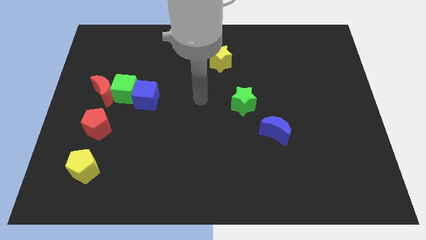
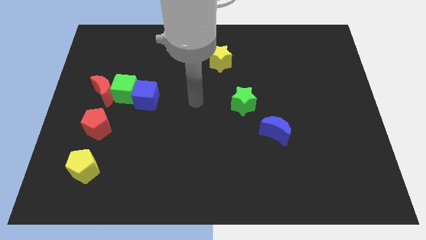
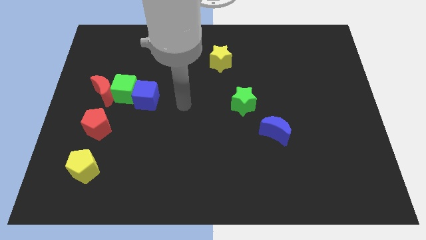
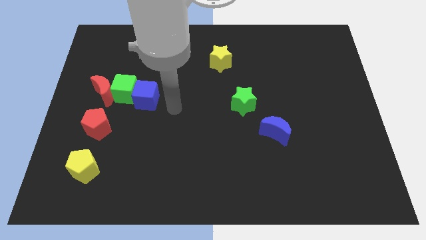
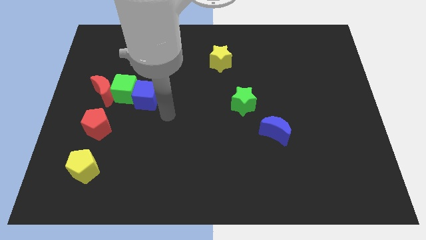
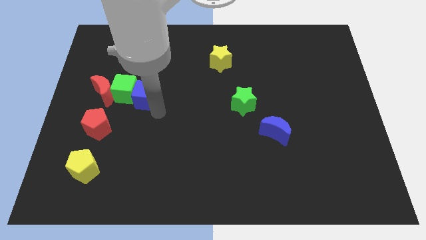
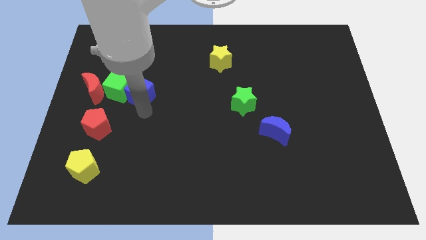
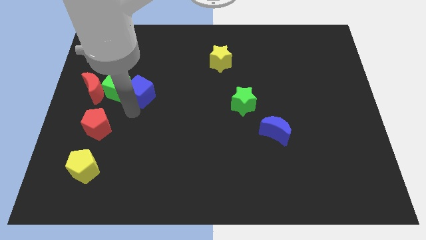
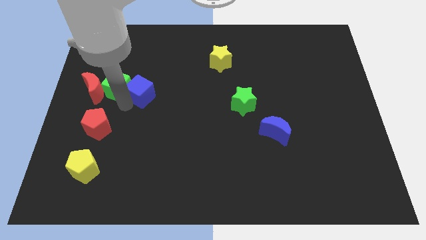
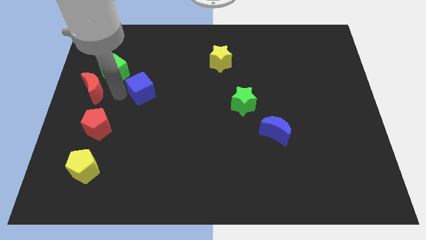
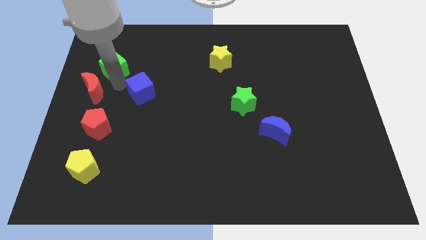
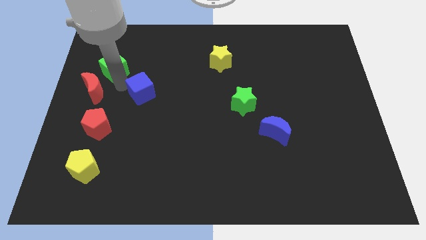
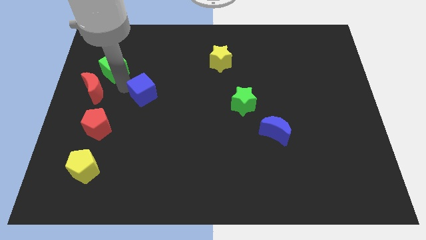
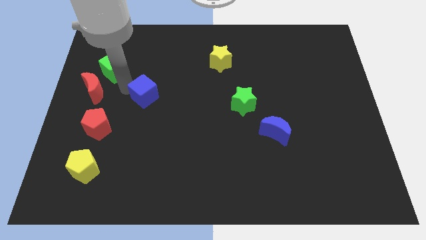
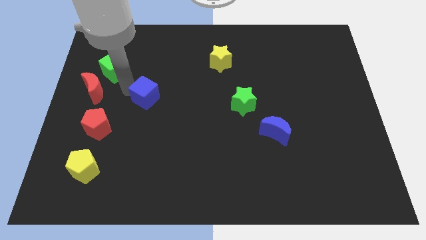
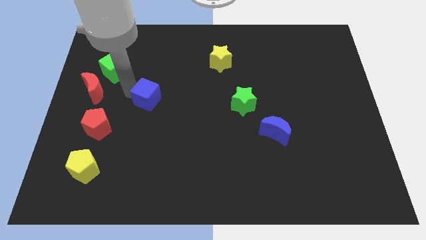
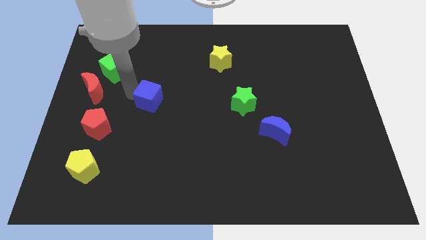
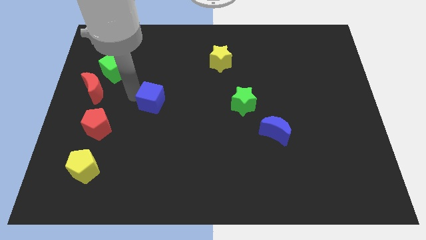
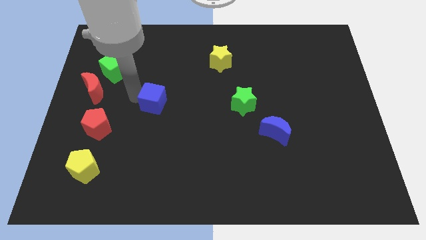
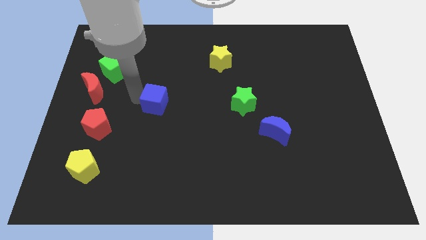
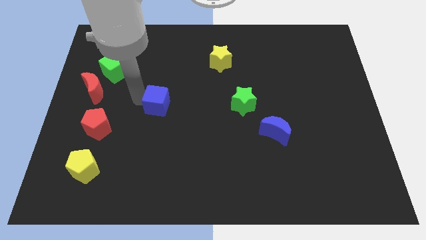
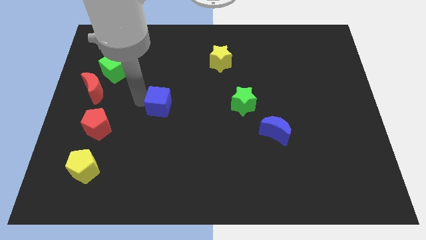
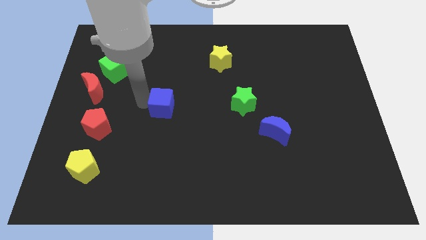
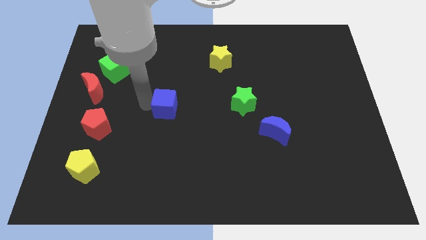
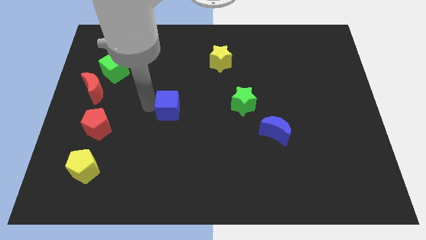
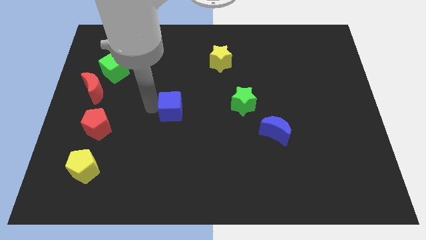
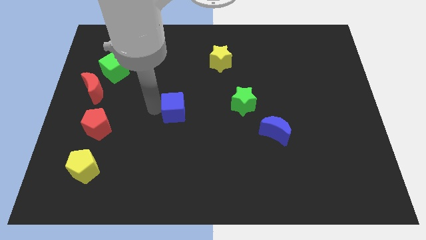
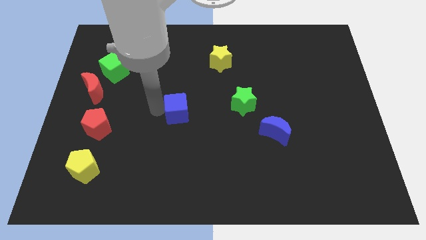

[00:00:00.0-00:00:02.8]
push the blue cube a bit right

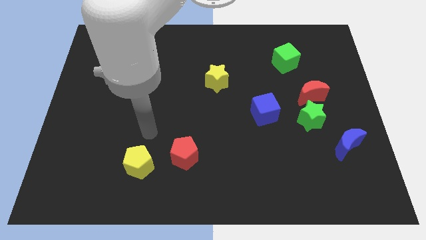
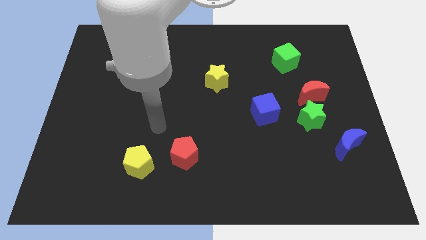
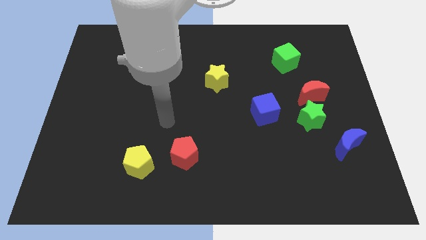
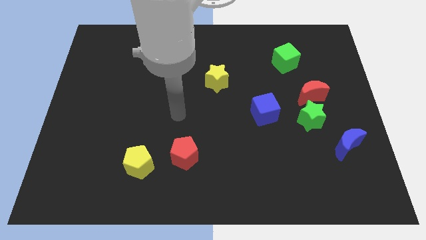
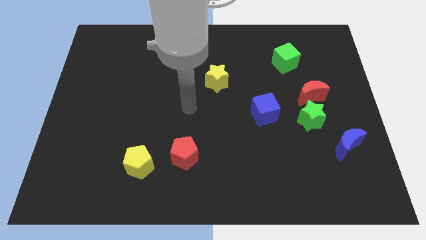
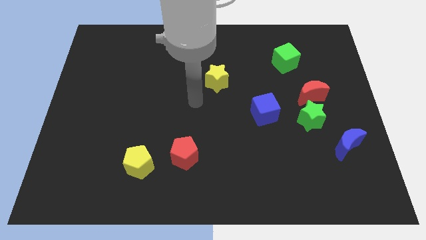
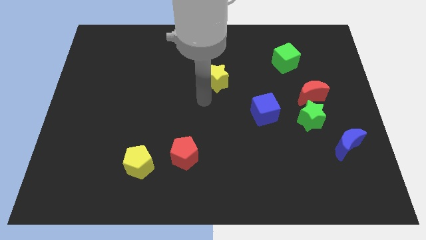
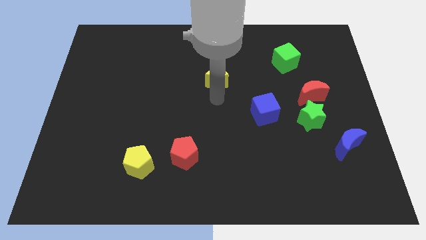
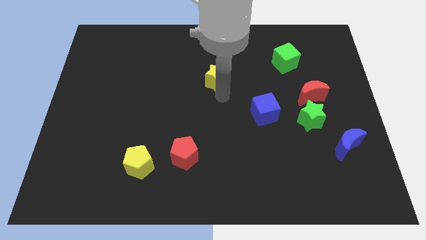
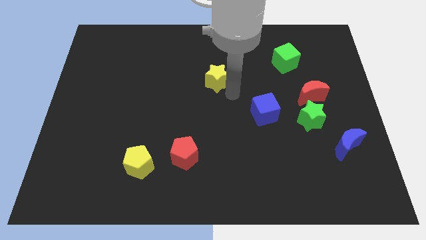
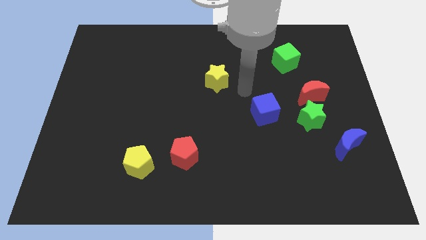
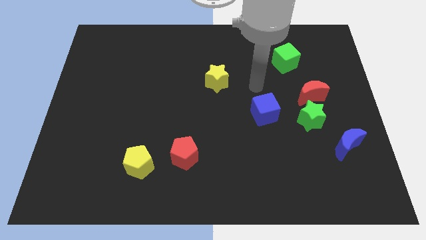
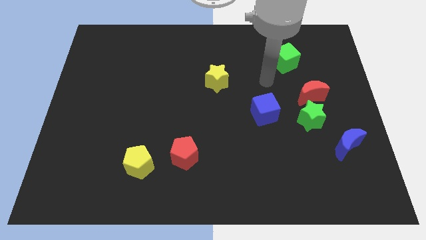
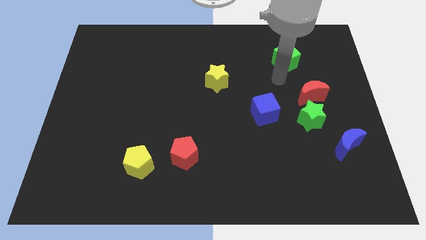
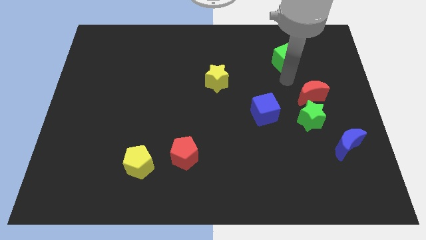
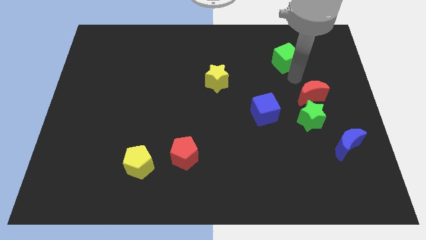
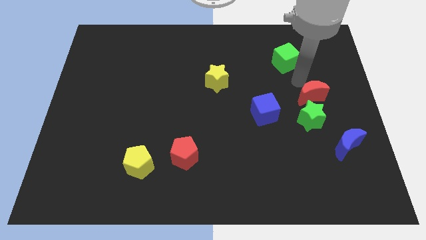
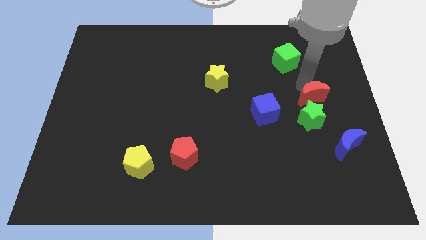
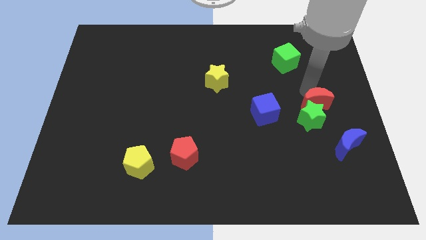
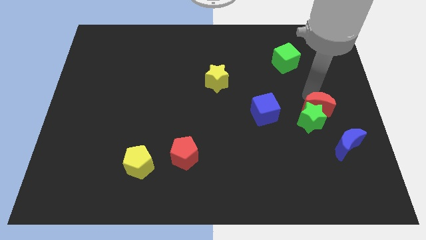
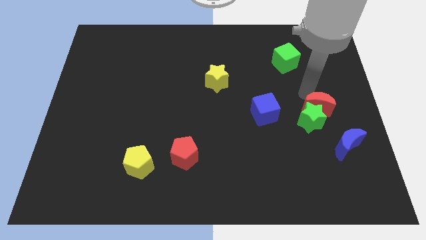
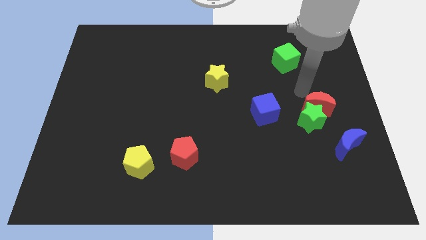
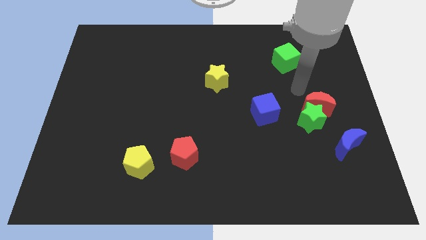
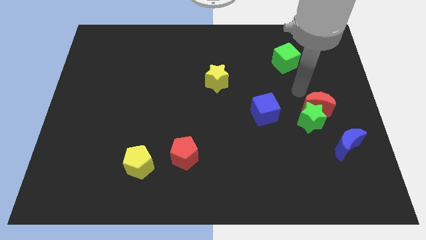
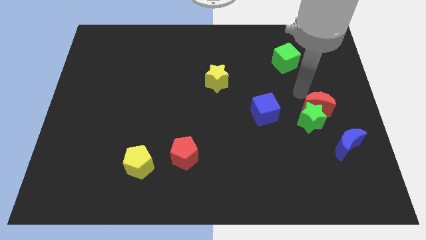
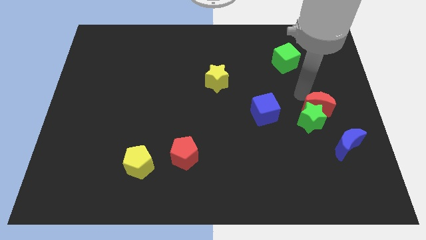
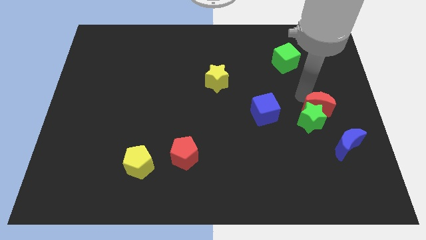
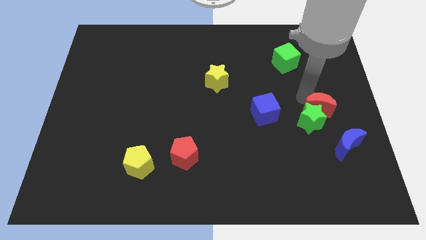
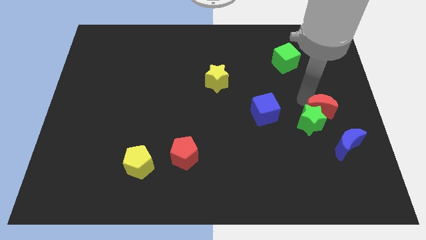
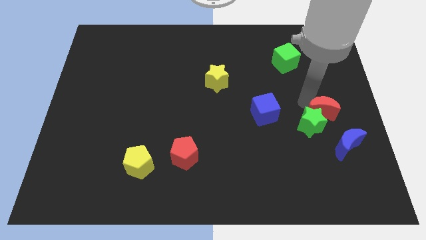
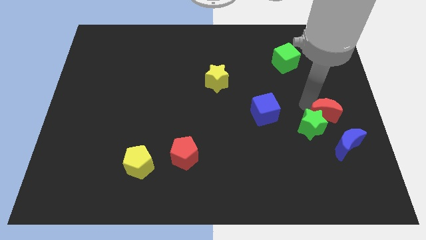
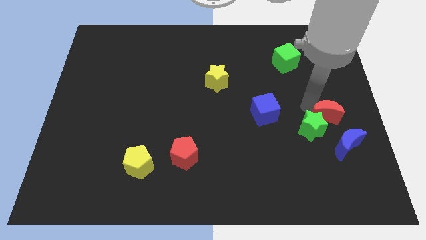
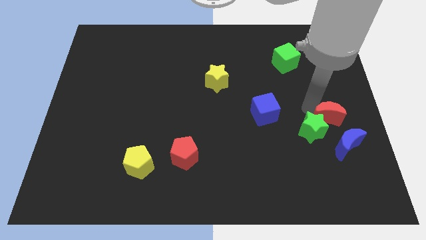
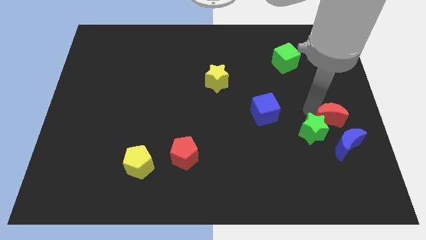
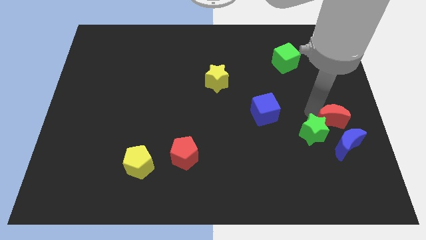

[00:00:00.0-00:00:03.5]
slightly slide the red moon downwards

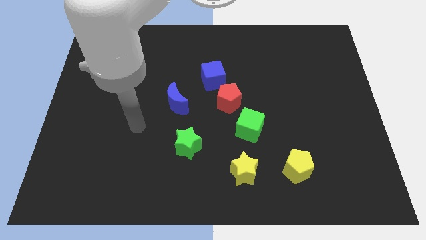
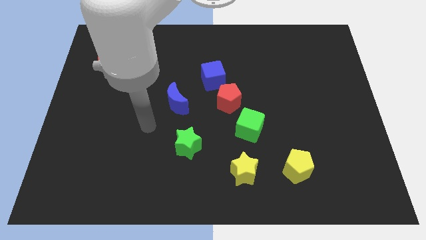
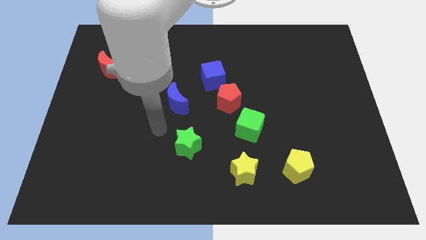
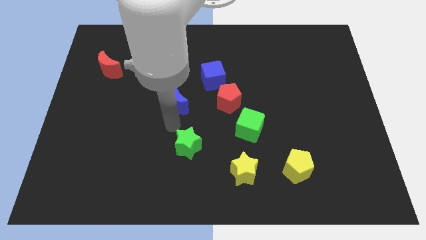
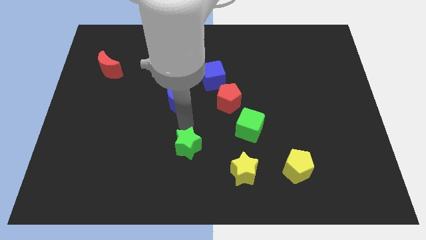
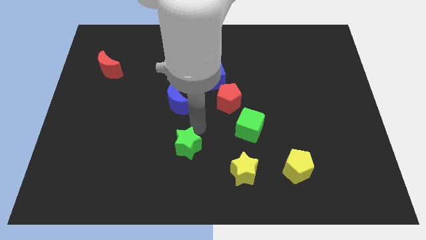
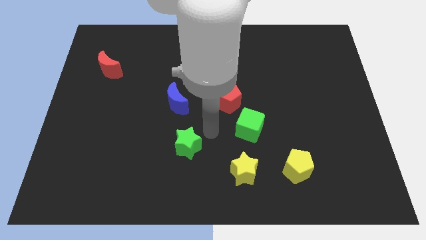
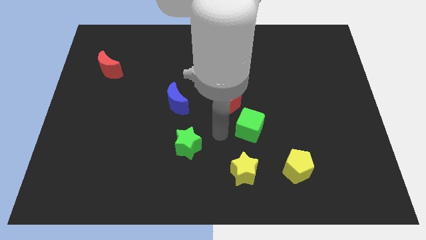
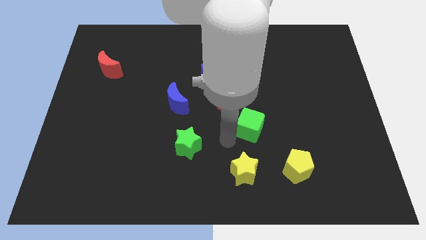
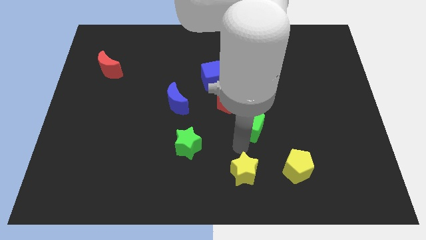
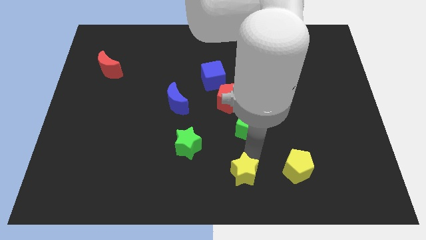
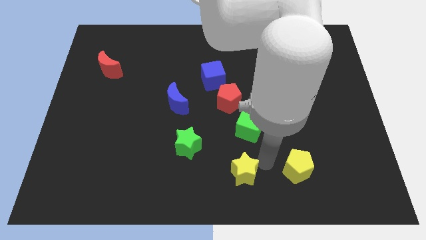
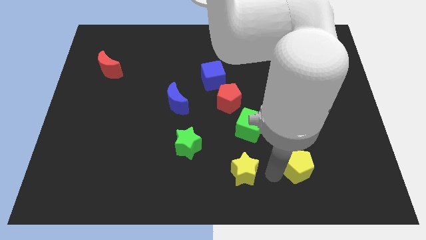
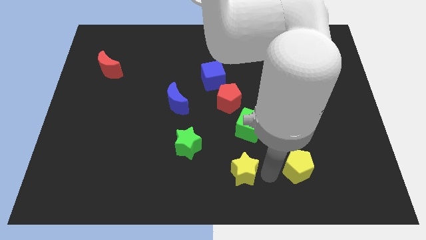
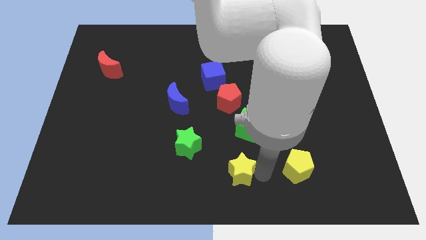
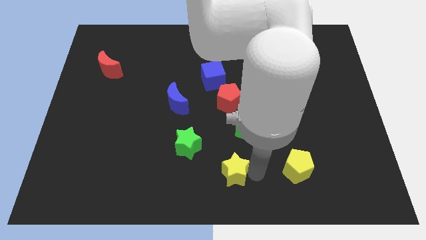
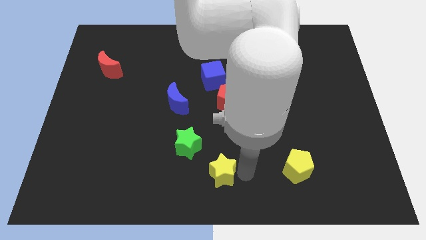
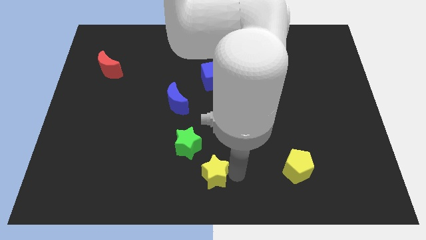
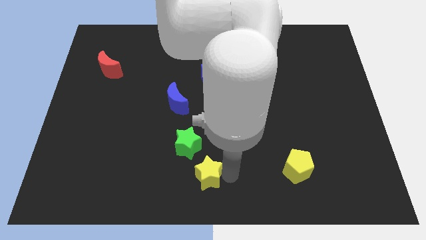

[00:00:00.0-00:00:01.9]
move the yellow star left a little
